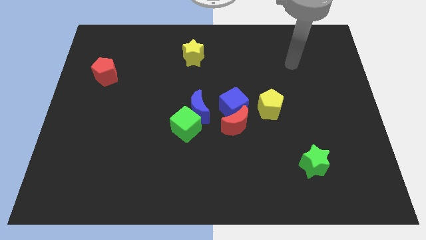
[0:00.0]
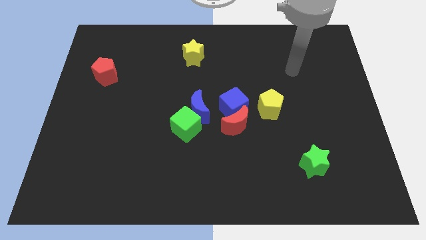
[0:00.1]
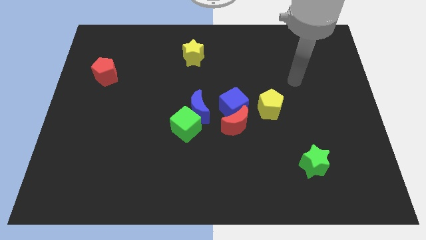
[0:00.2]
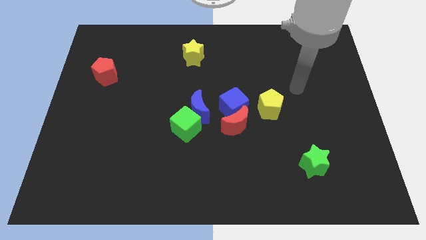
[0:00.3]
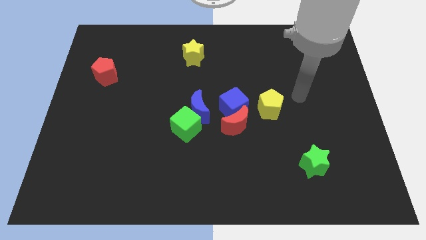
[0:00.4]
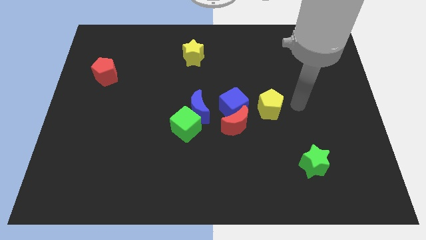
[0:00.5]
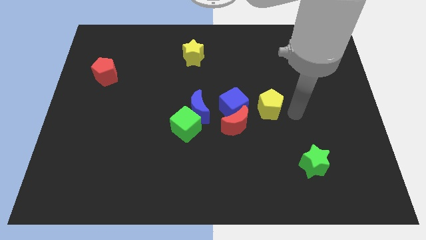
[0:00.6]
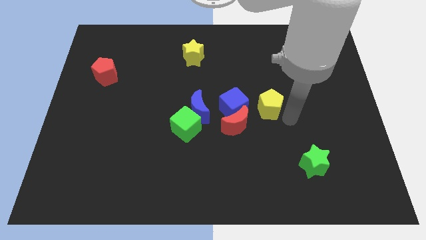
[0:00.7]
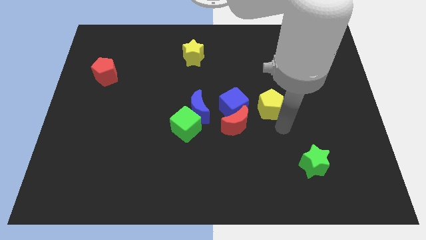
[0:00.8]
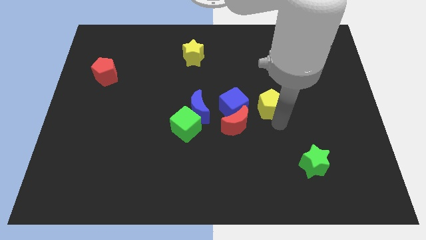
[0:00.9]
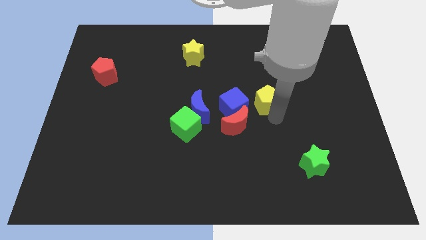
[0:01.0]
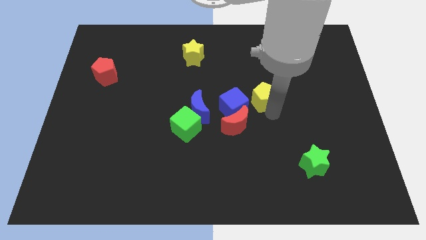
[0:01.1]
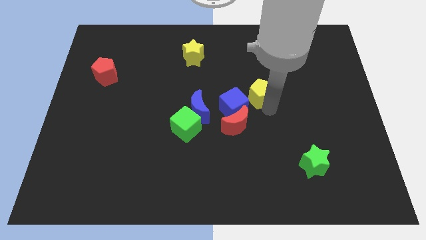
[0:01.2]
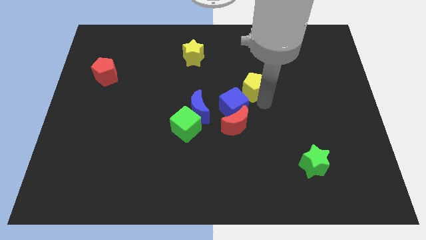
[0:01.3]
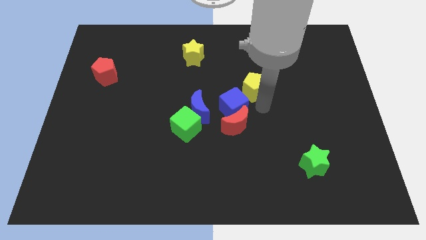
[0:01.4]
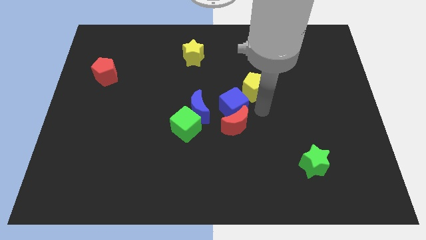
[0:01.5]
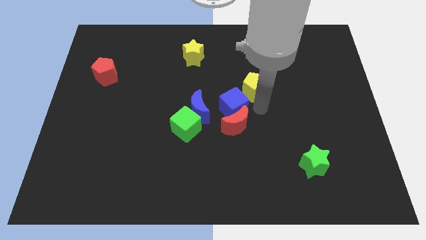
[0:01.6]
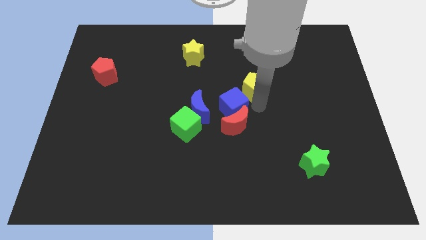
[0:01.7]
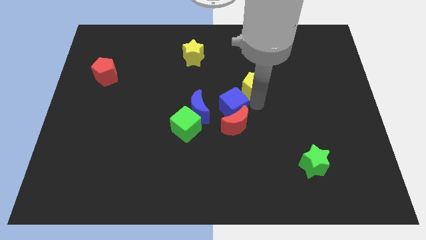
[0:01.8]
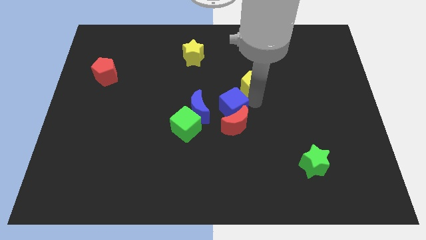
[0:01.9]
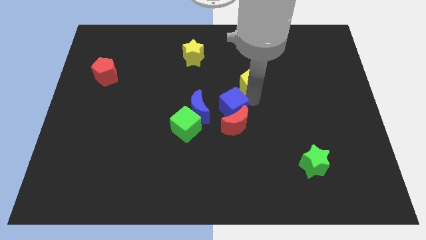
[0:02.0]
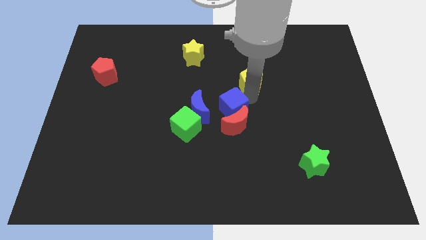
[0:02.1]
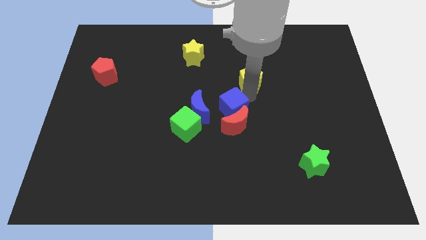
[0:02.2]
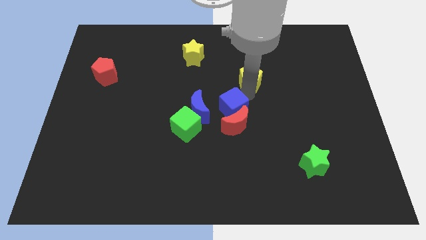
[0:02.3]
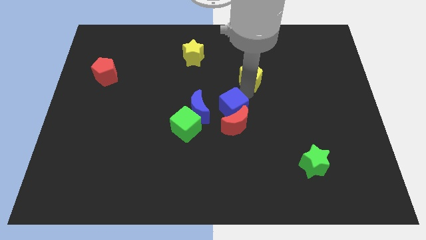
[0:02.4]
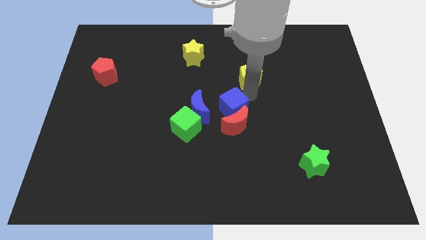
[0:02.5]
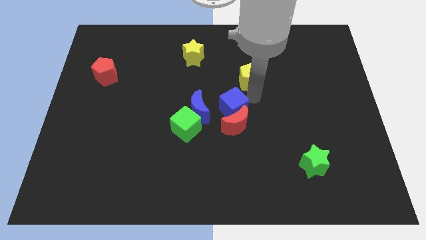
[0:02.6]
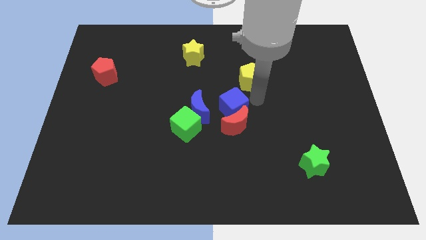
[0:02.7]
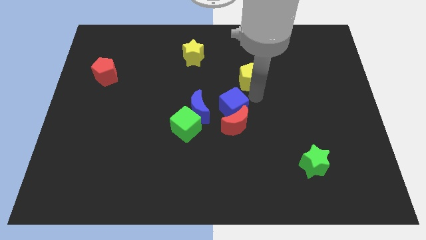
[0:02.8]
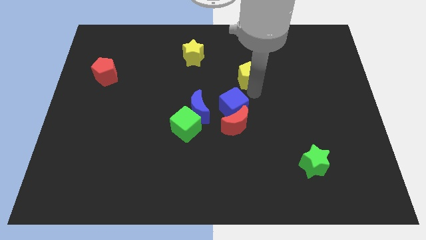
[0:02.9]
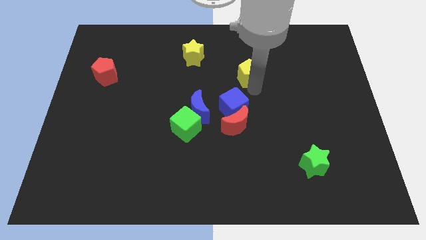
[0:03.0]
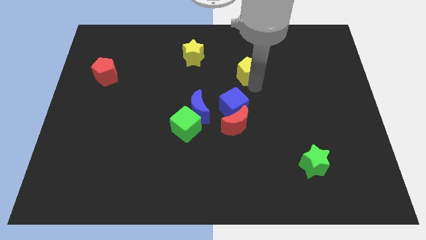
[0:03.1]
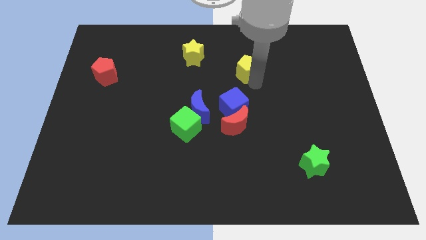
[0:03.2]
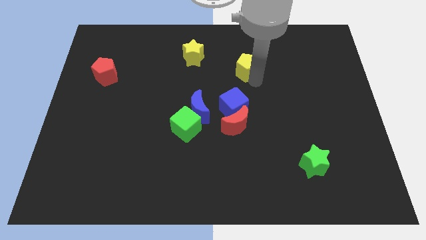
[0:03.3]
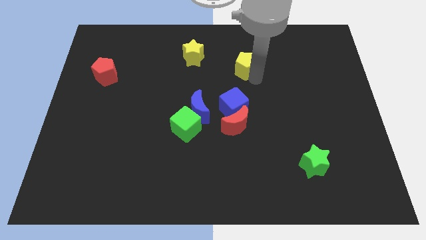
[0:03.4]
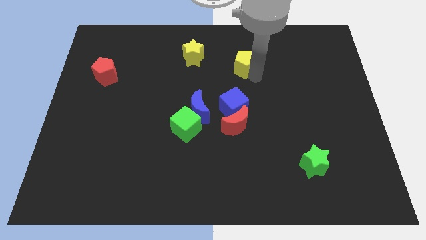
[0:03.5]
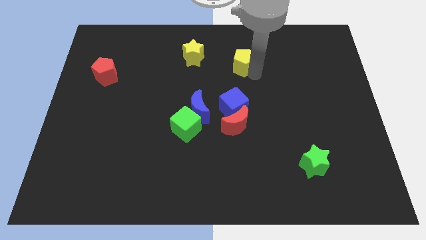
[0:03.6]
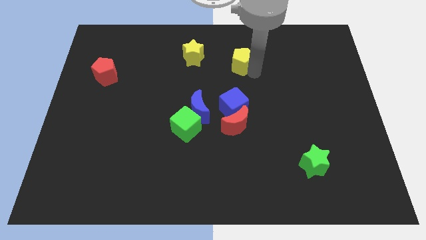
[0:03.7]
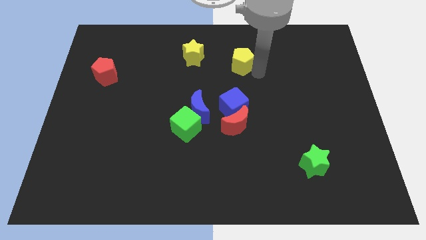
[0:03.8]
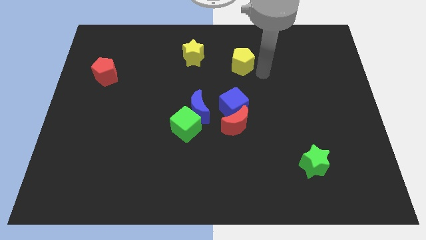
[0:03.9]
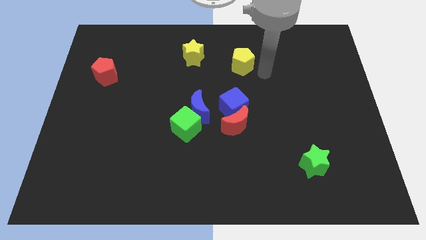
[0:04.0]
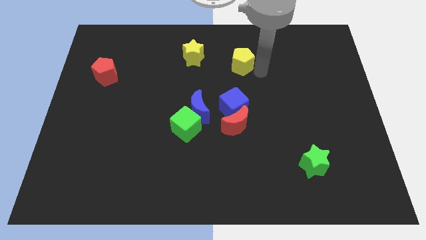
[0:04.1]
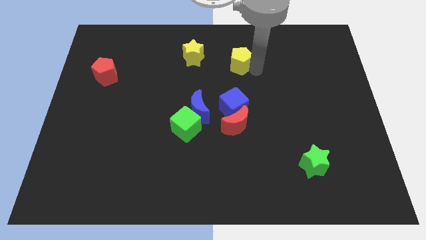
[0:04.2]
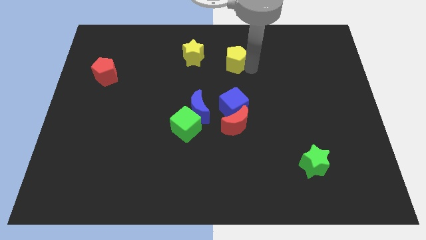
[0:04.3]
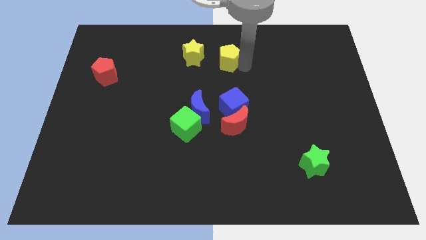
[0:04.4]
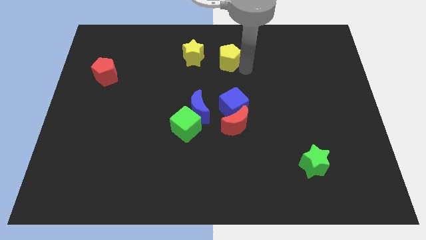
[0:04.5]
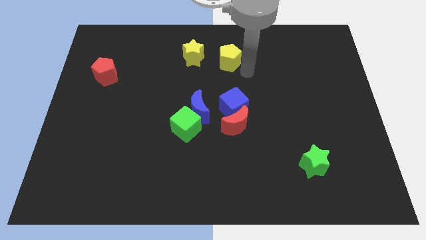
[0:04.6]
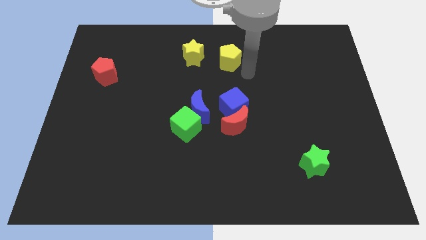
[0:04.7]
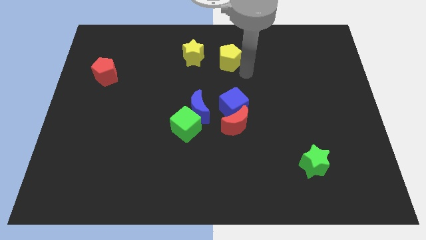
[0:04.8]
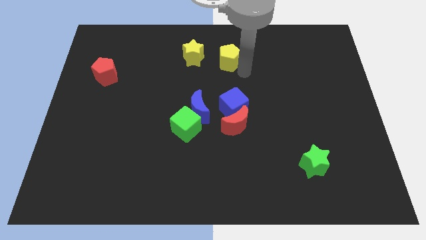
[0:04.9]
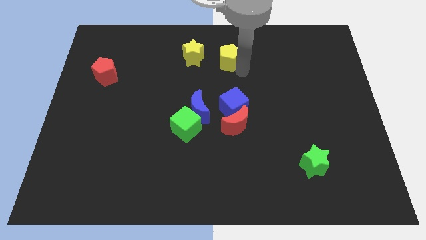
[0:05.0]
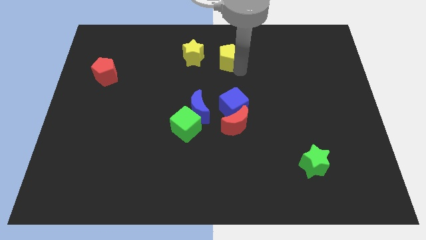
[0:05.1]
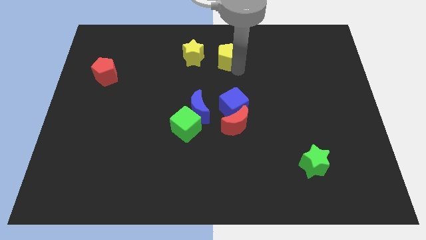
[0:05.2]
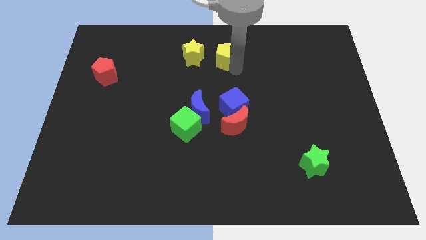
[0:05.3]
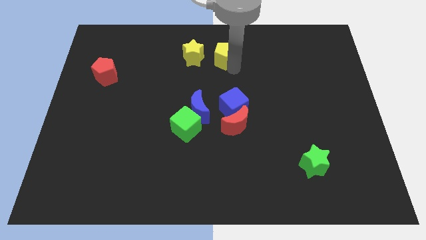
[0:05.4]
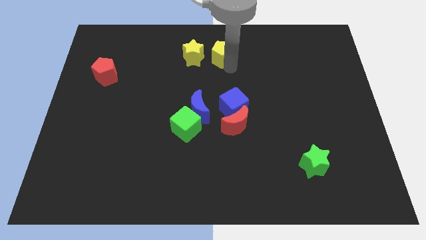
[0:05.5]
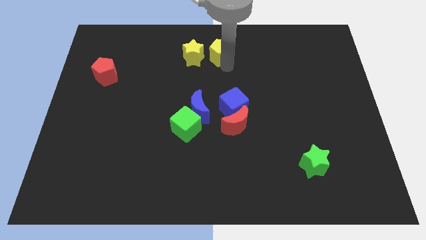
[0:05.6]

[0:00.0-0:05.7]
slide the yellow pentagon to the top side

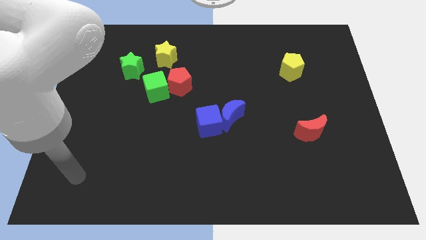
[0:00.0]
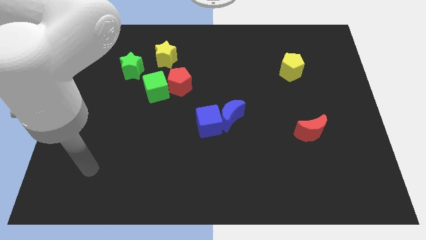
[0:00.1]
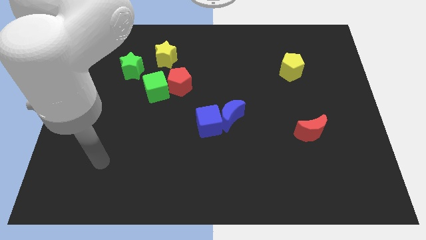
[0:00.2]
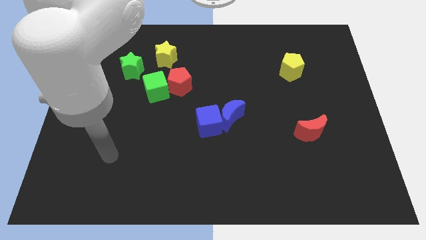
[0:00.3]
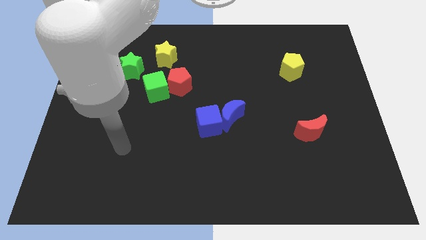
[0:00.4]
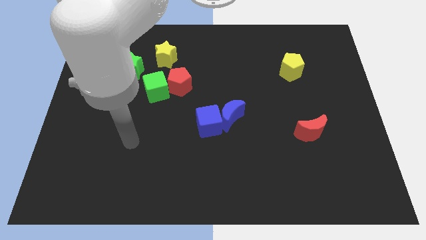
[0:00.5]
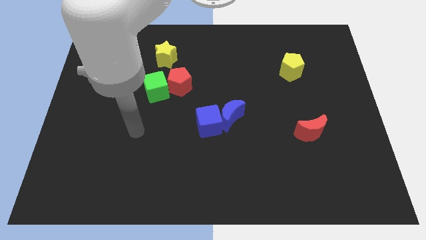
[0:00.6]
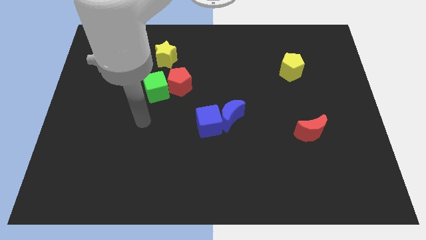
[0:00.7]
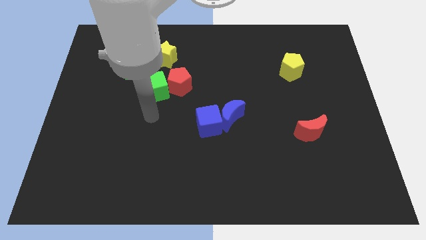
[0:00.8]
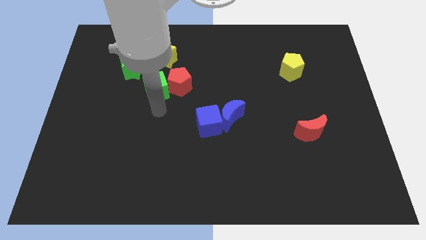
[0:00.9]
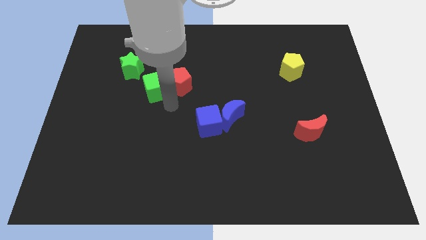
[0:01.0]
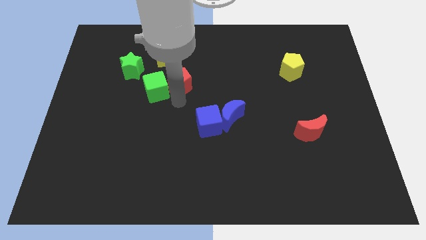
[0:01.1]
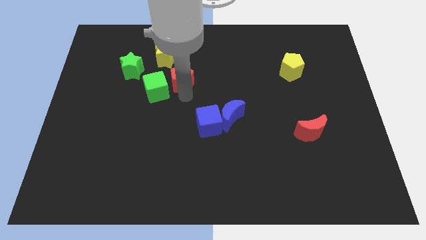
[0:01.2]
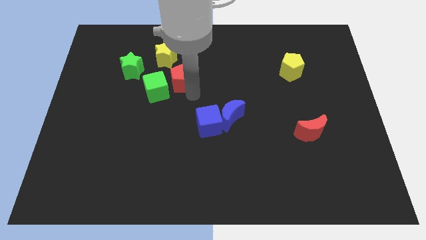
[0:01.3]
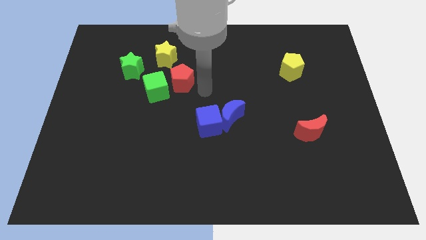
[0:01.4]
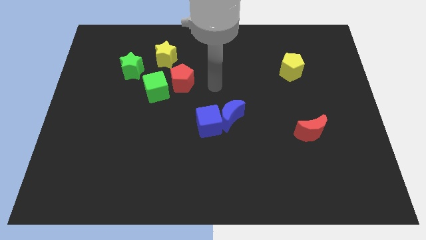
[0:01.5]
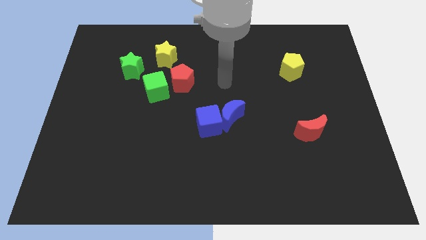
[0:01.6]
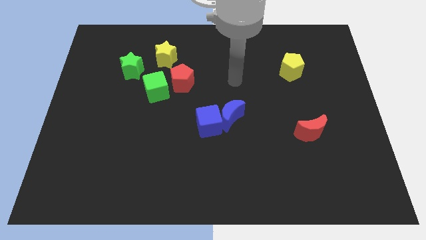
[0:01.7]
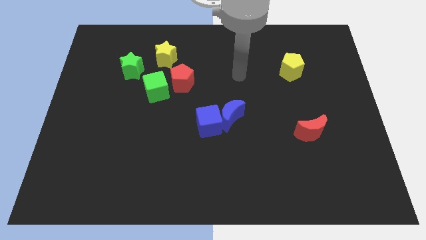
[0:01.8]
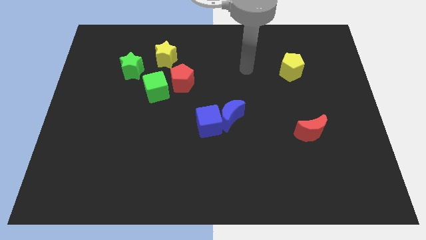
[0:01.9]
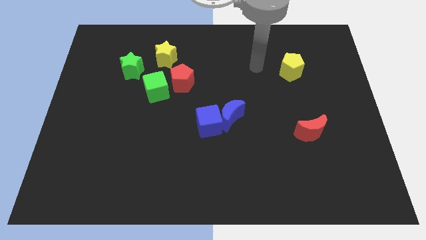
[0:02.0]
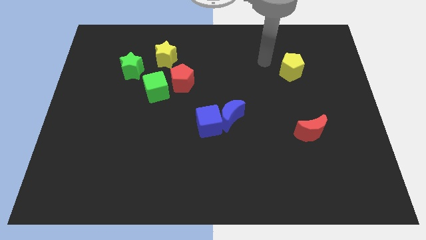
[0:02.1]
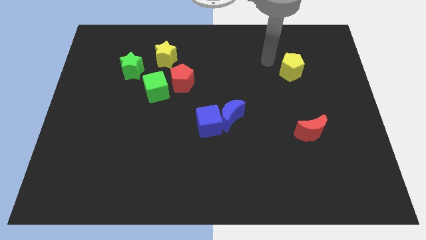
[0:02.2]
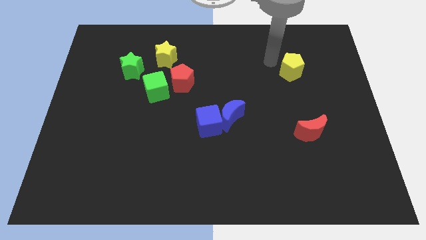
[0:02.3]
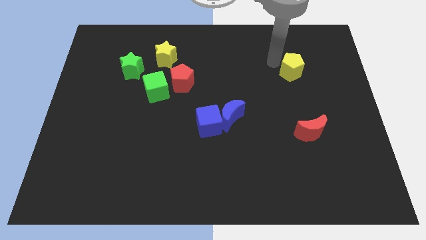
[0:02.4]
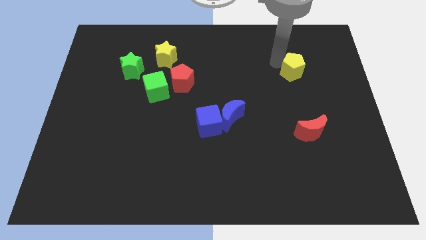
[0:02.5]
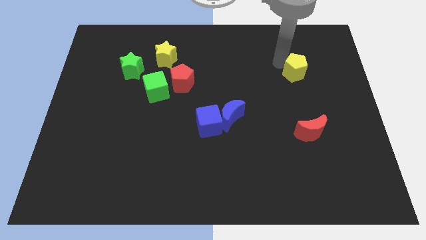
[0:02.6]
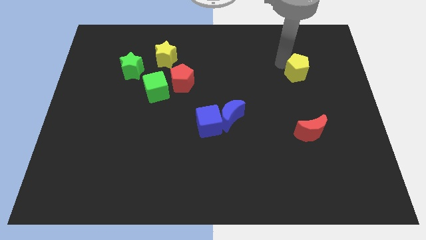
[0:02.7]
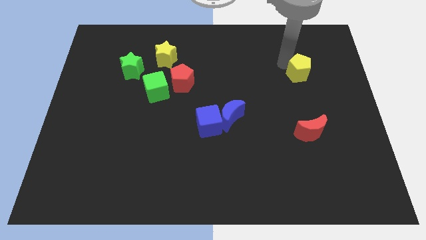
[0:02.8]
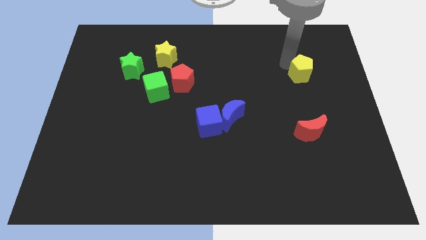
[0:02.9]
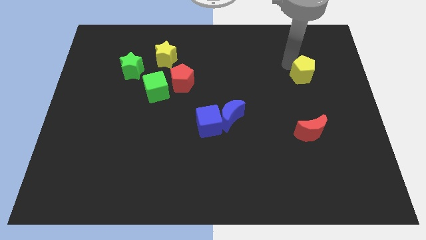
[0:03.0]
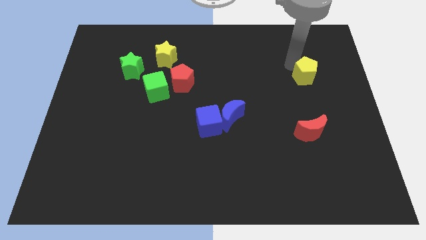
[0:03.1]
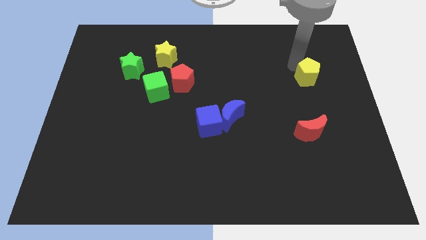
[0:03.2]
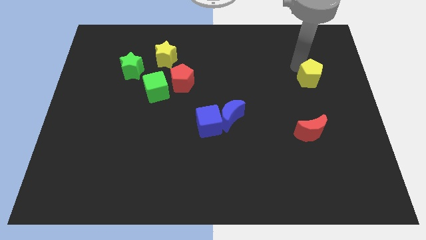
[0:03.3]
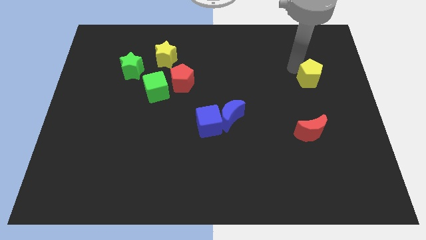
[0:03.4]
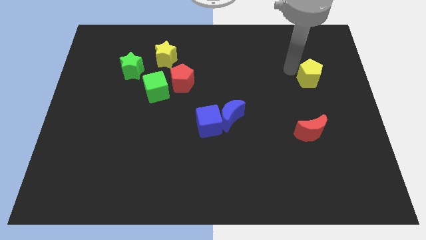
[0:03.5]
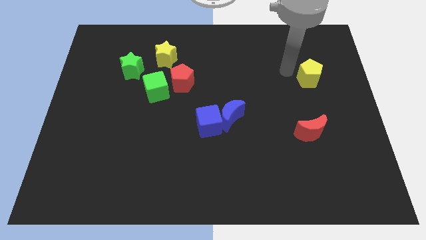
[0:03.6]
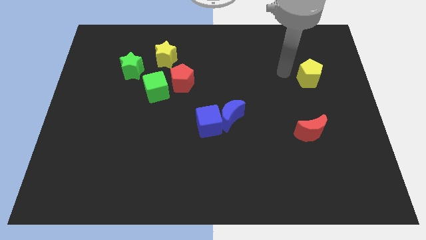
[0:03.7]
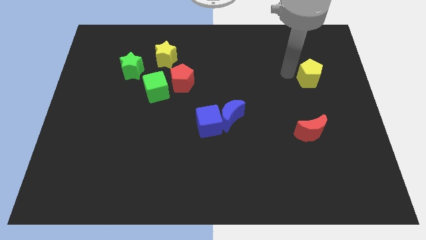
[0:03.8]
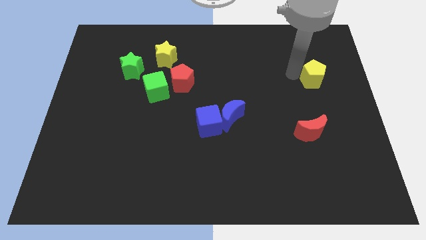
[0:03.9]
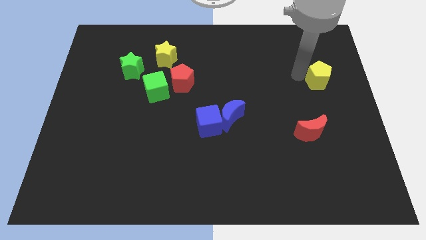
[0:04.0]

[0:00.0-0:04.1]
put the yellow pentagon to the right side
